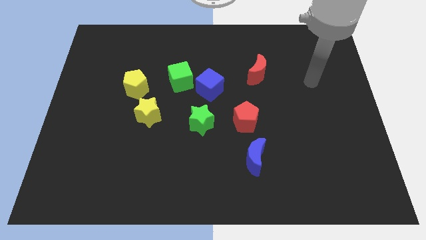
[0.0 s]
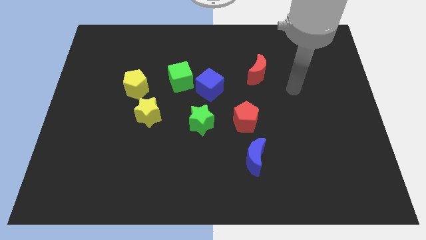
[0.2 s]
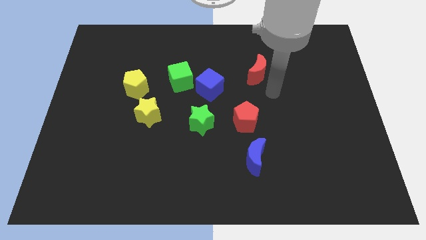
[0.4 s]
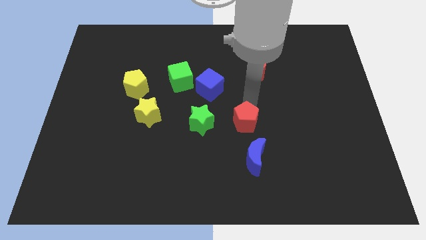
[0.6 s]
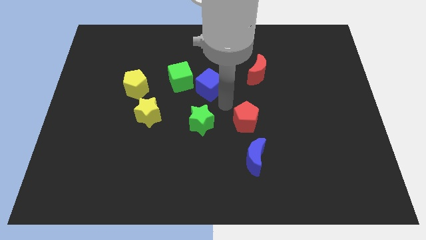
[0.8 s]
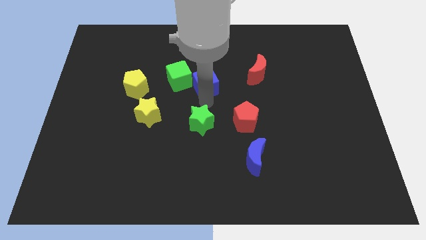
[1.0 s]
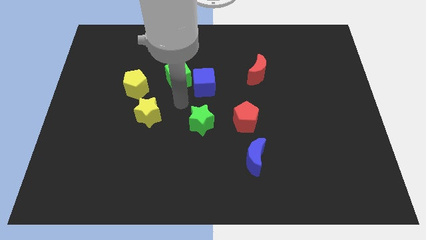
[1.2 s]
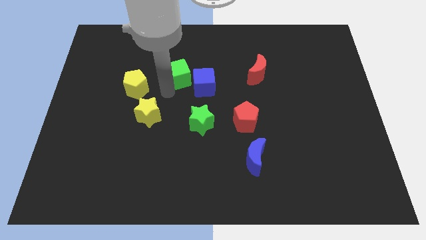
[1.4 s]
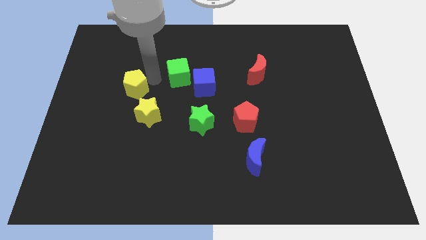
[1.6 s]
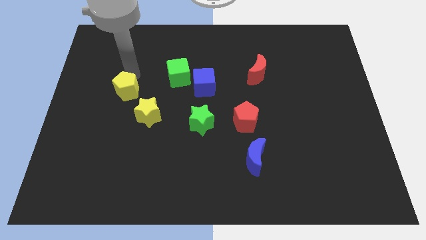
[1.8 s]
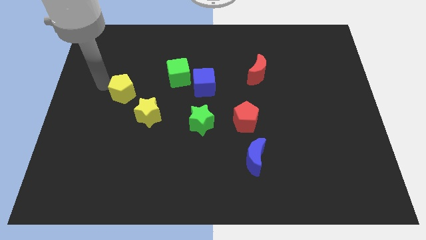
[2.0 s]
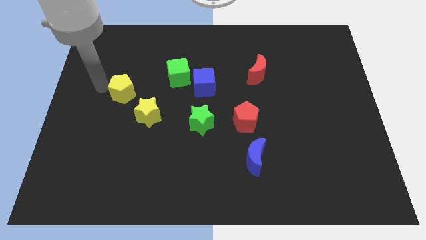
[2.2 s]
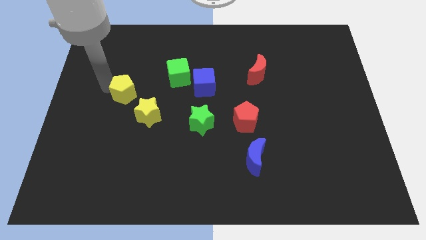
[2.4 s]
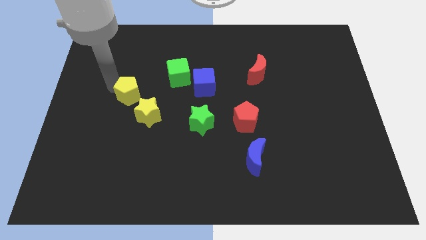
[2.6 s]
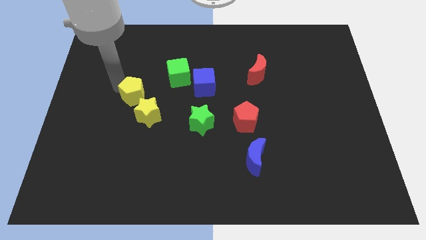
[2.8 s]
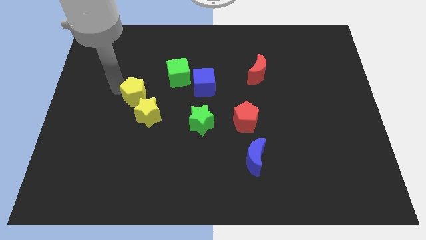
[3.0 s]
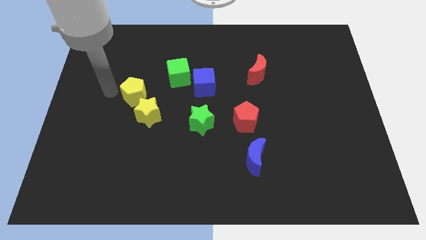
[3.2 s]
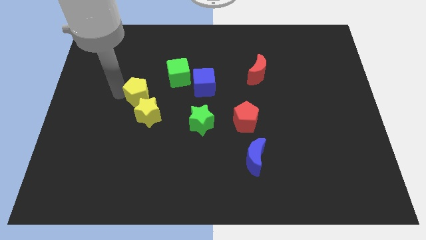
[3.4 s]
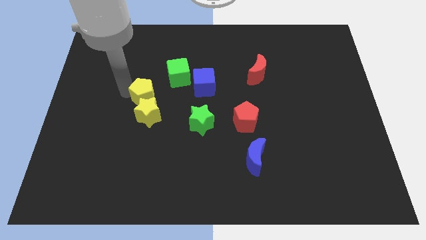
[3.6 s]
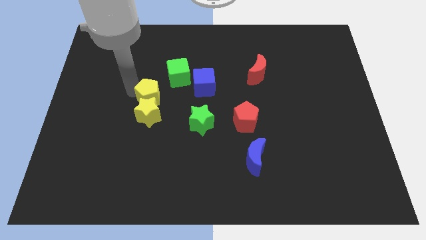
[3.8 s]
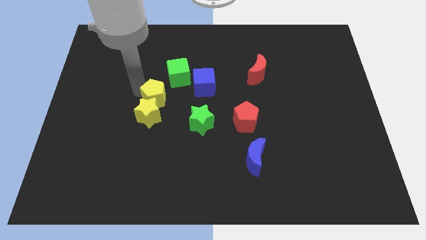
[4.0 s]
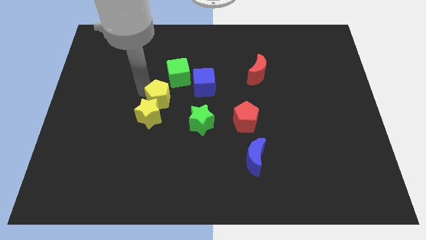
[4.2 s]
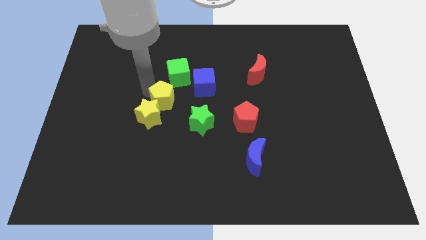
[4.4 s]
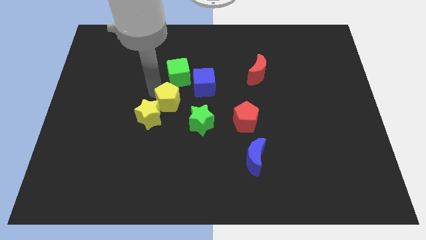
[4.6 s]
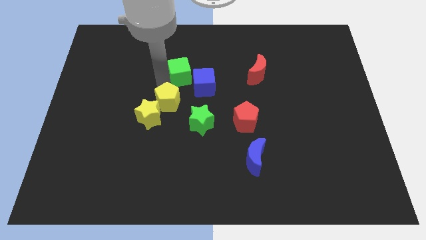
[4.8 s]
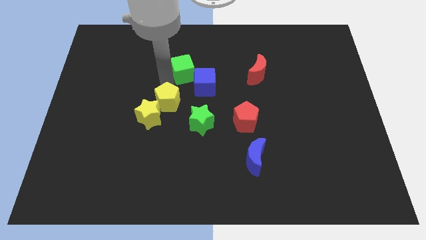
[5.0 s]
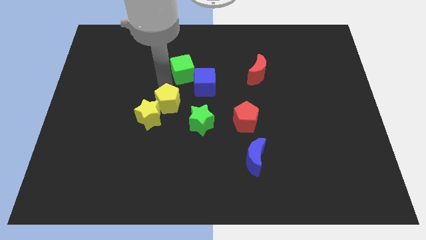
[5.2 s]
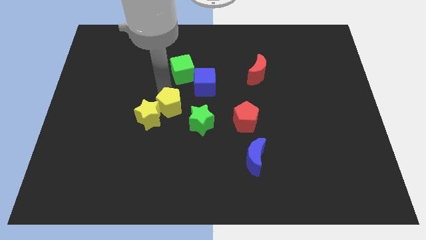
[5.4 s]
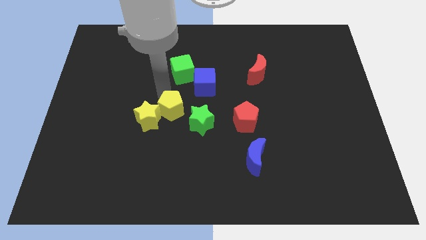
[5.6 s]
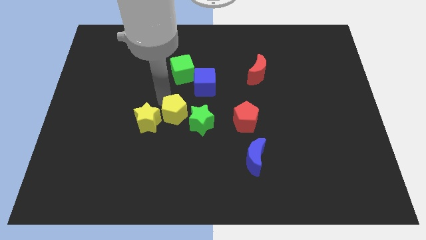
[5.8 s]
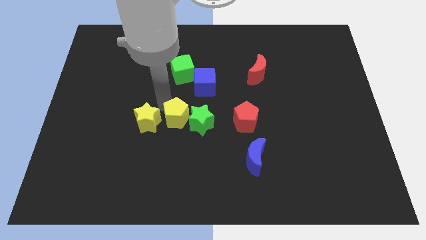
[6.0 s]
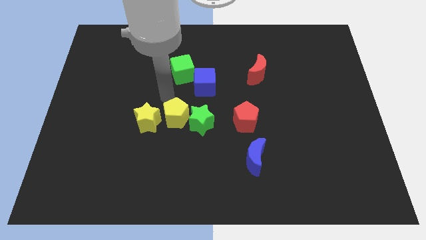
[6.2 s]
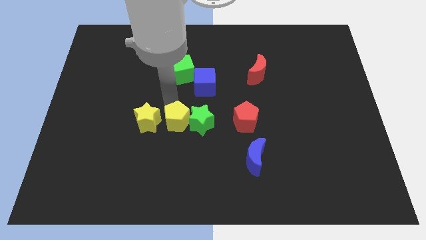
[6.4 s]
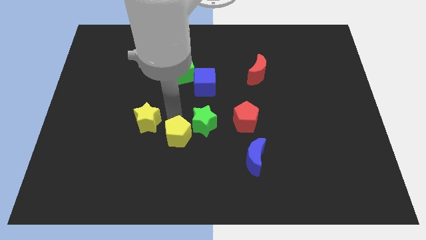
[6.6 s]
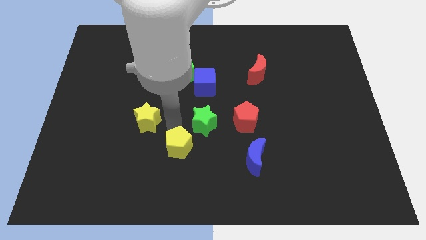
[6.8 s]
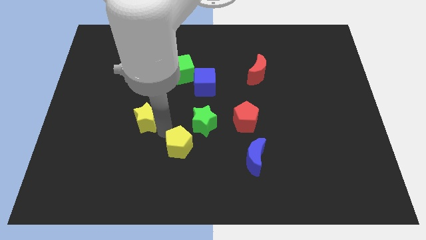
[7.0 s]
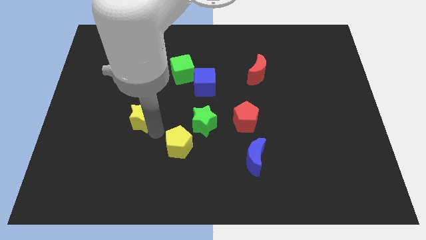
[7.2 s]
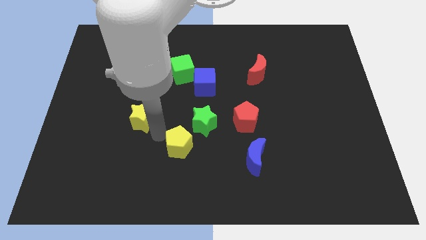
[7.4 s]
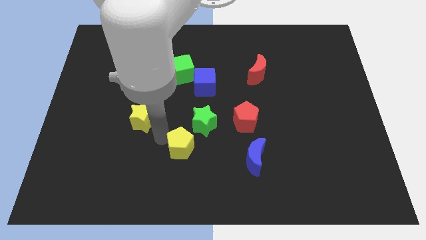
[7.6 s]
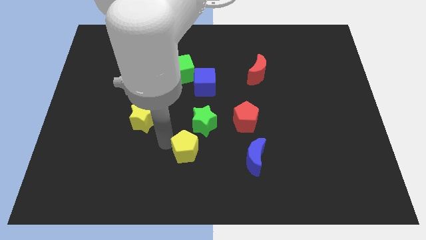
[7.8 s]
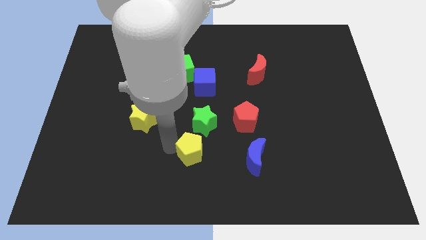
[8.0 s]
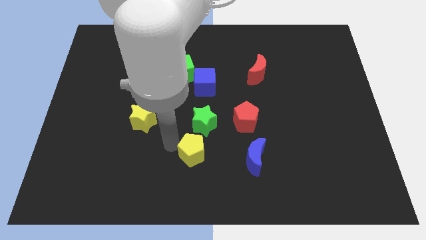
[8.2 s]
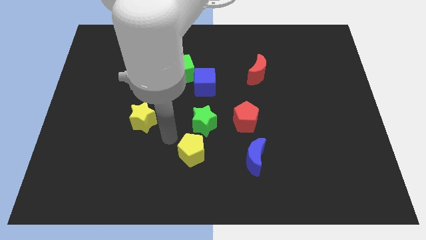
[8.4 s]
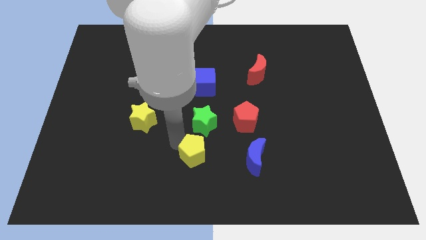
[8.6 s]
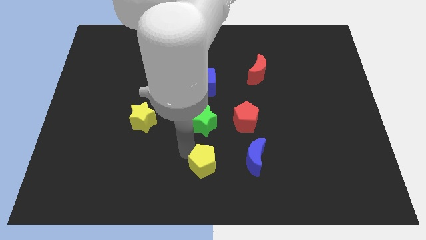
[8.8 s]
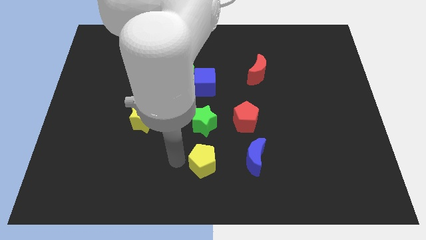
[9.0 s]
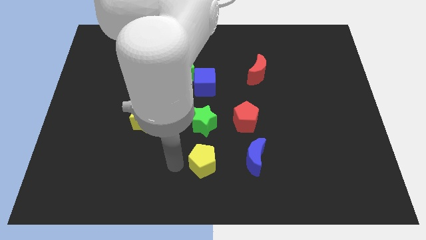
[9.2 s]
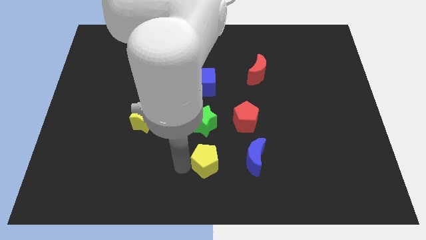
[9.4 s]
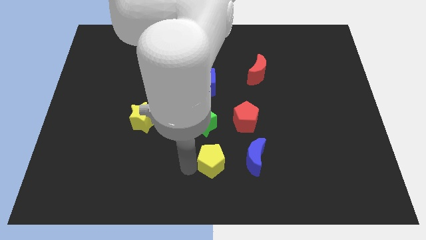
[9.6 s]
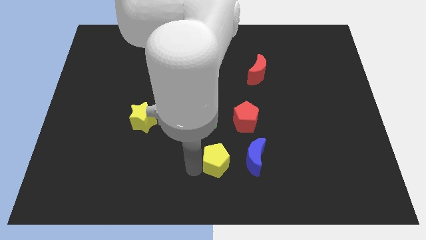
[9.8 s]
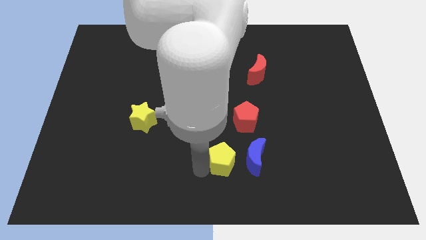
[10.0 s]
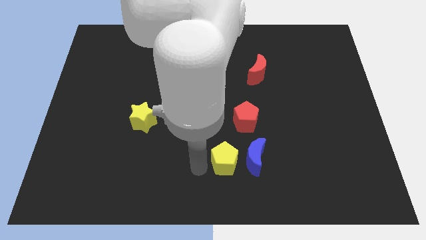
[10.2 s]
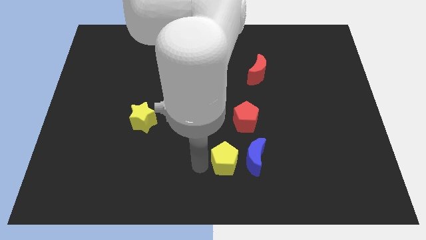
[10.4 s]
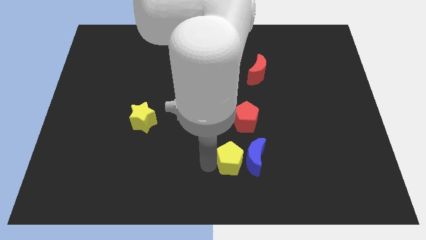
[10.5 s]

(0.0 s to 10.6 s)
push the yellow pentagon to the blue moon

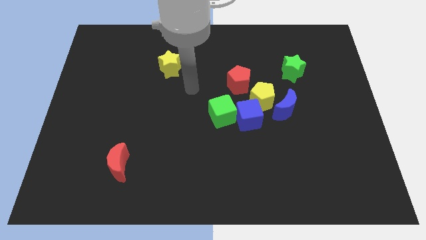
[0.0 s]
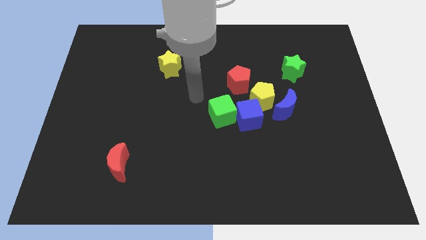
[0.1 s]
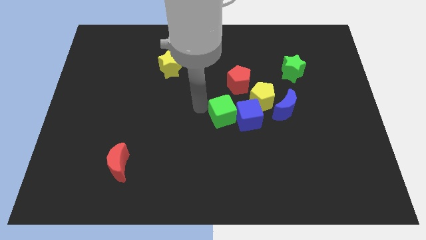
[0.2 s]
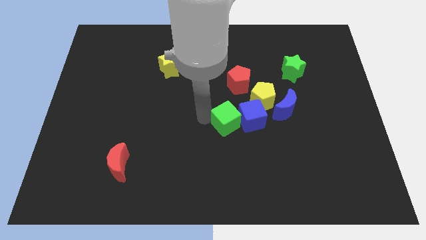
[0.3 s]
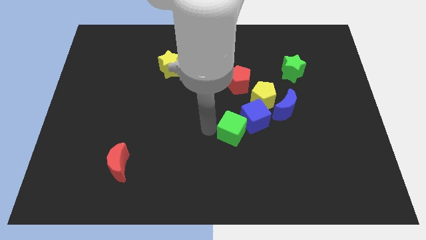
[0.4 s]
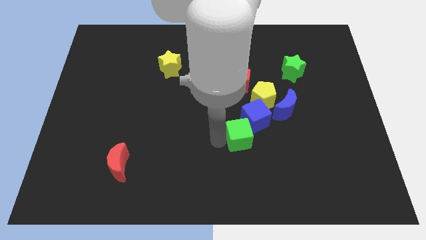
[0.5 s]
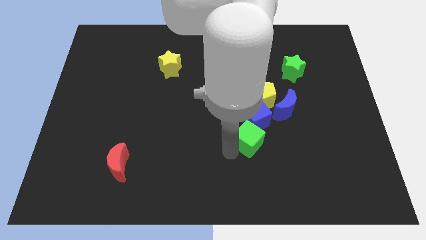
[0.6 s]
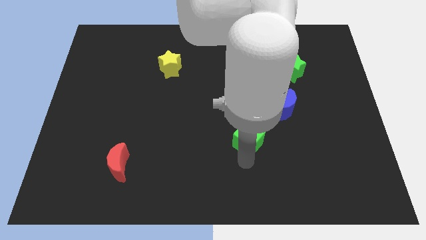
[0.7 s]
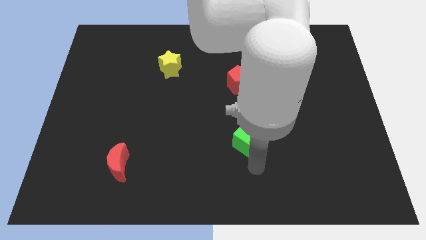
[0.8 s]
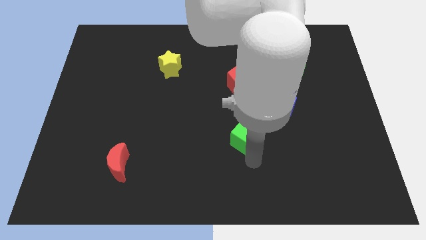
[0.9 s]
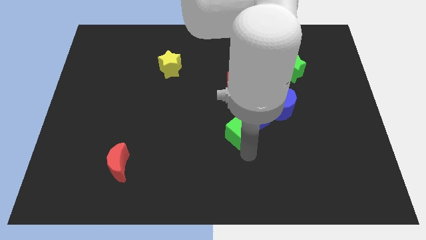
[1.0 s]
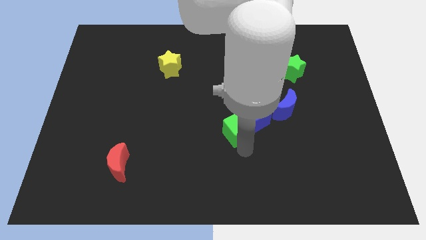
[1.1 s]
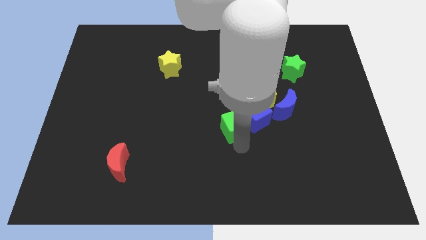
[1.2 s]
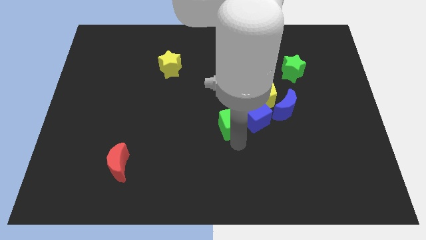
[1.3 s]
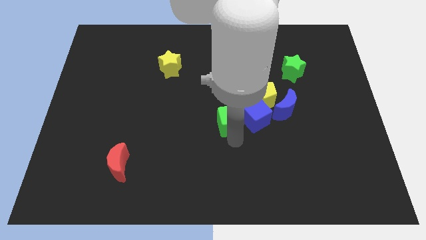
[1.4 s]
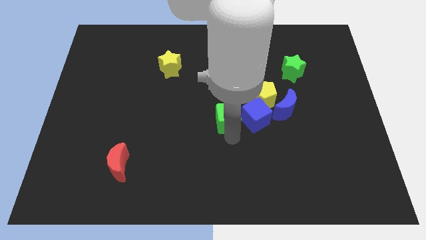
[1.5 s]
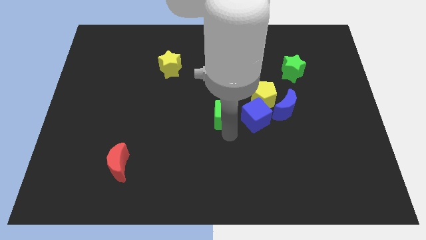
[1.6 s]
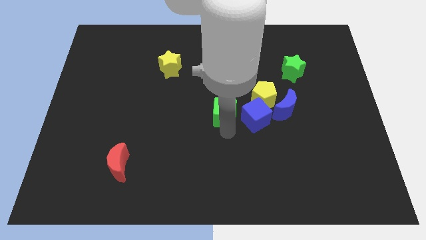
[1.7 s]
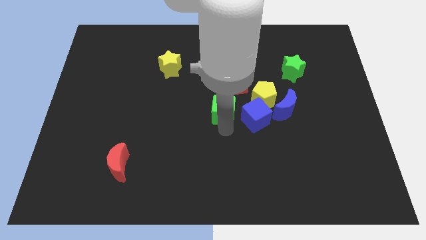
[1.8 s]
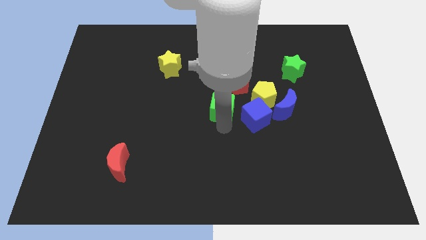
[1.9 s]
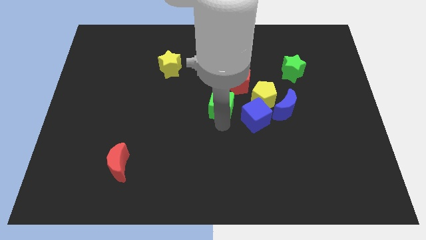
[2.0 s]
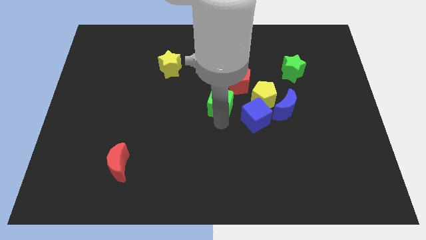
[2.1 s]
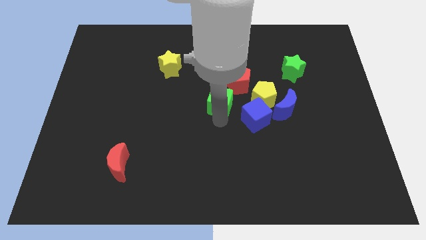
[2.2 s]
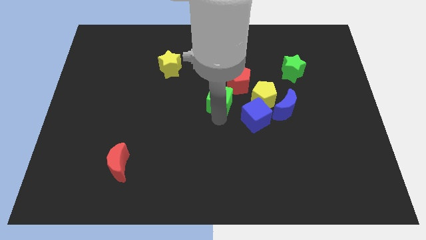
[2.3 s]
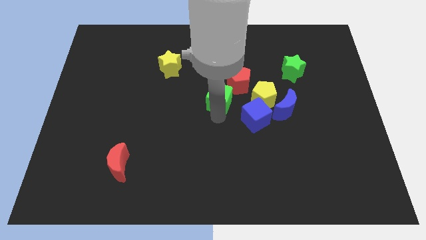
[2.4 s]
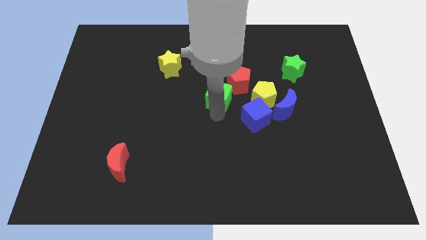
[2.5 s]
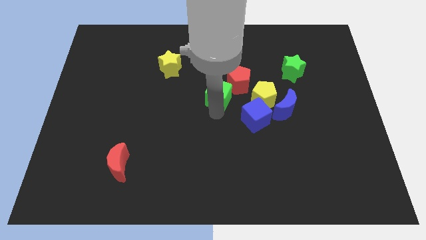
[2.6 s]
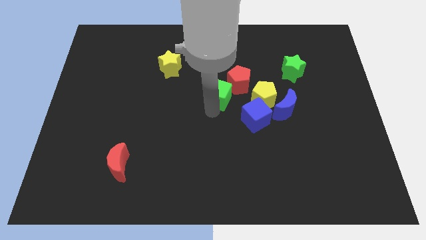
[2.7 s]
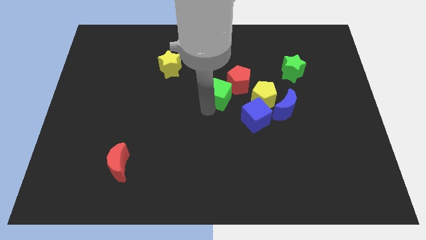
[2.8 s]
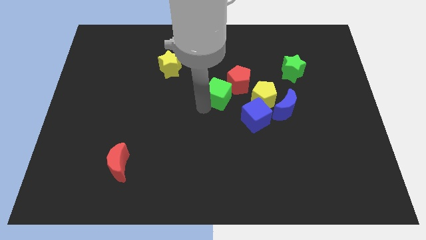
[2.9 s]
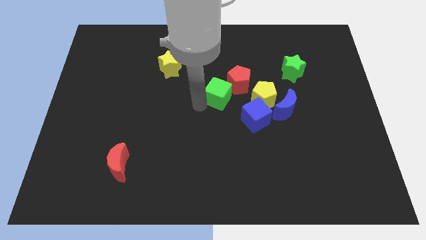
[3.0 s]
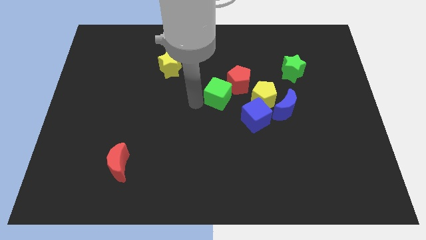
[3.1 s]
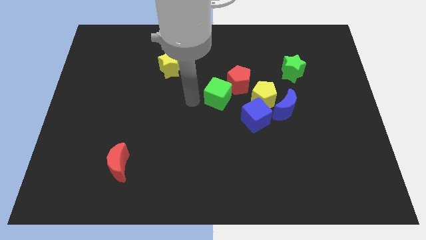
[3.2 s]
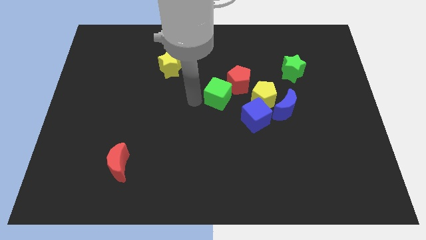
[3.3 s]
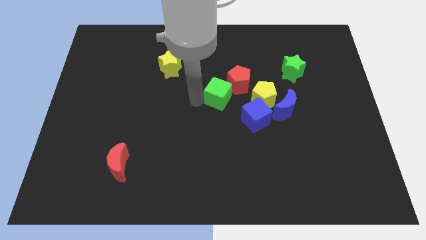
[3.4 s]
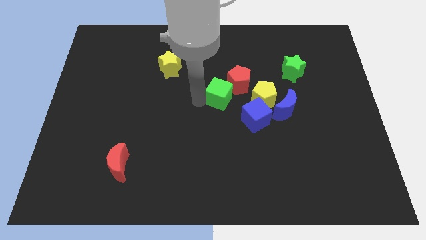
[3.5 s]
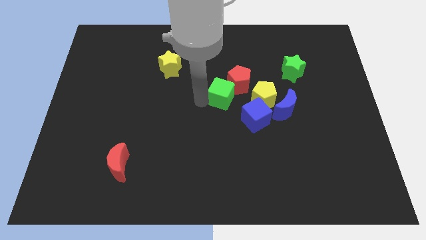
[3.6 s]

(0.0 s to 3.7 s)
move the green cube towards the red pentagon
